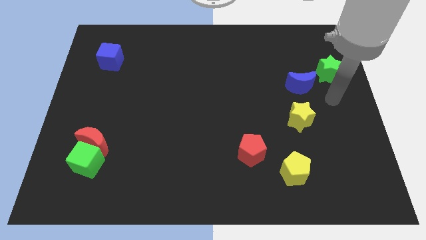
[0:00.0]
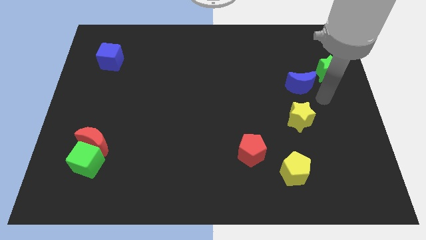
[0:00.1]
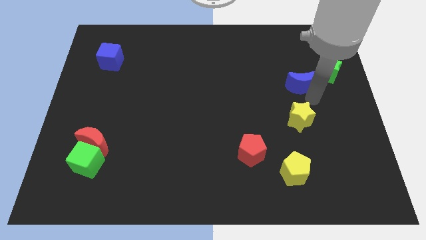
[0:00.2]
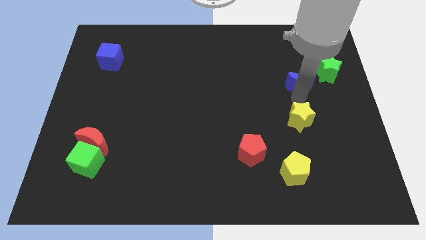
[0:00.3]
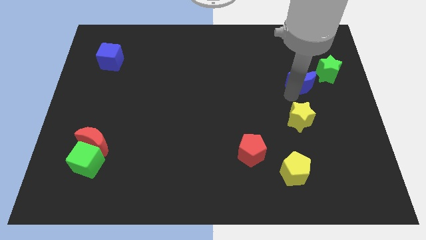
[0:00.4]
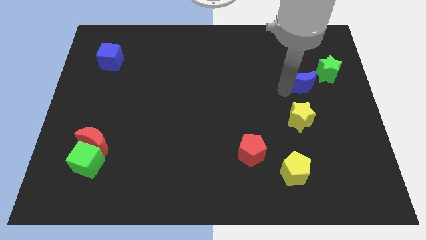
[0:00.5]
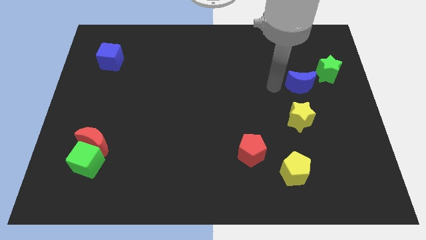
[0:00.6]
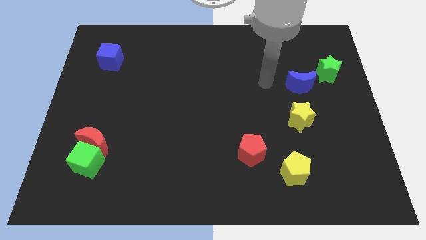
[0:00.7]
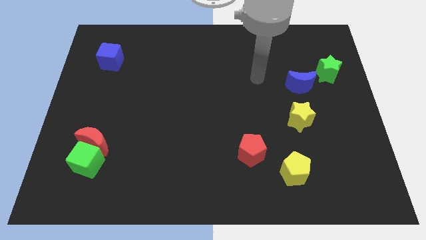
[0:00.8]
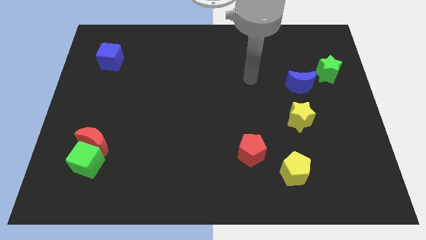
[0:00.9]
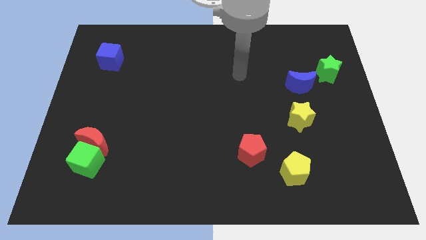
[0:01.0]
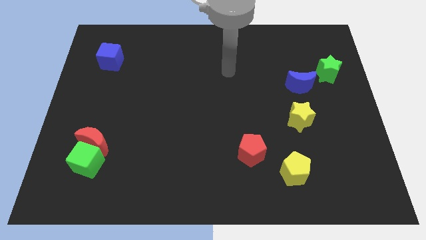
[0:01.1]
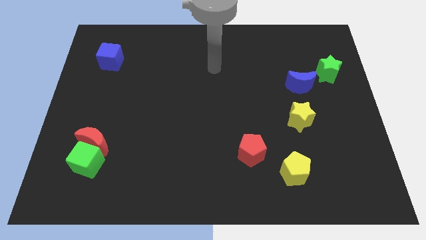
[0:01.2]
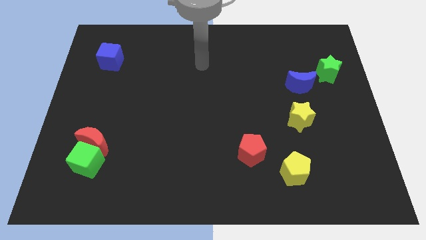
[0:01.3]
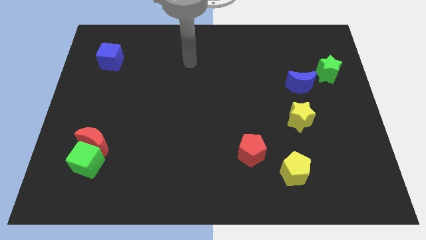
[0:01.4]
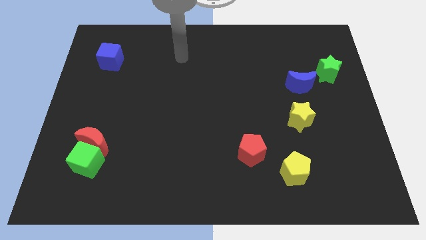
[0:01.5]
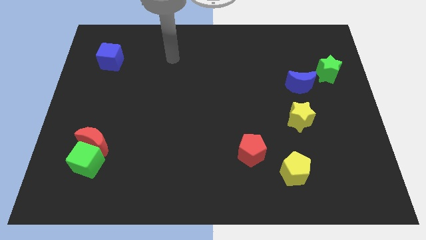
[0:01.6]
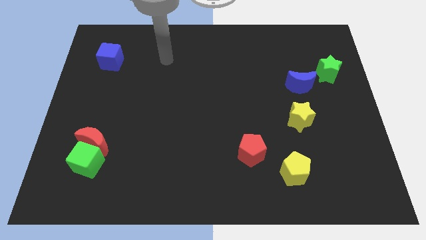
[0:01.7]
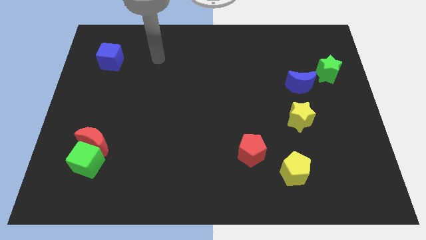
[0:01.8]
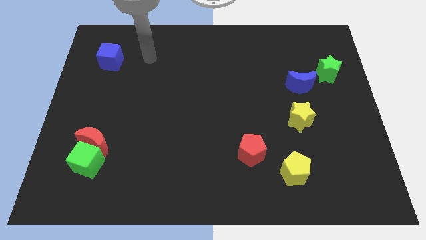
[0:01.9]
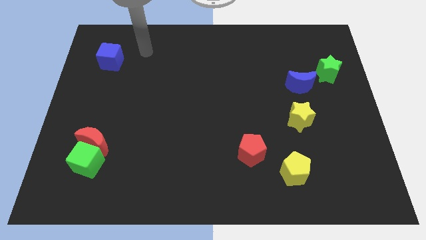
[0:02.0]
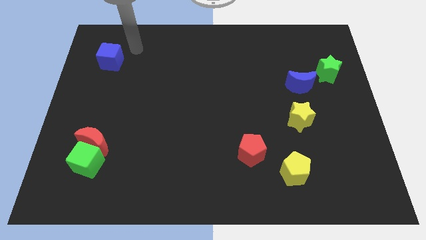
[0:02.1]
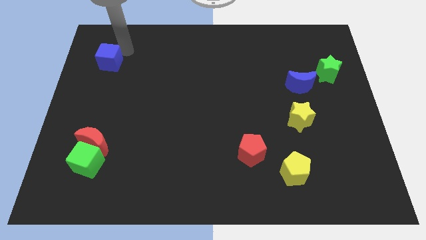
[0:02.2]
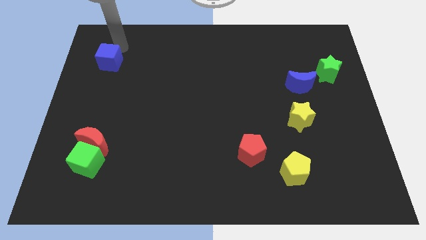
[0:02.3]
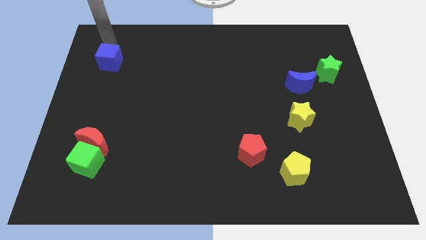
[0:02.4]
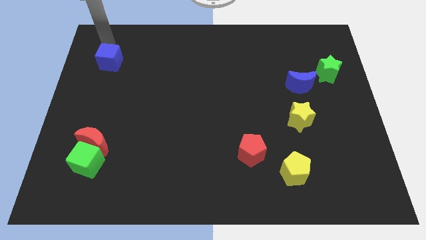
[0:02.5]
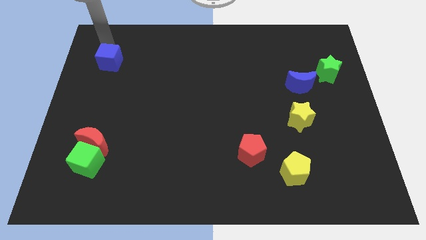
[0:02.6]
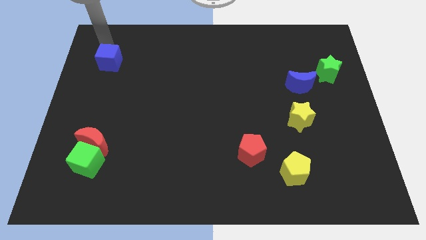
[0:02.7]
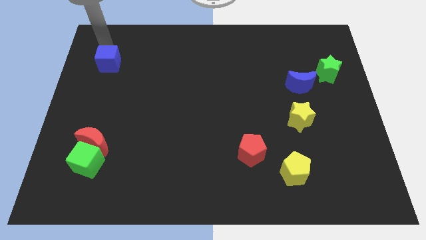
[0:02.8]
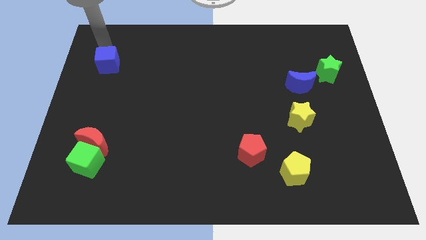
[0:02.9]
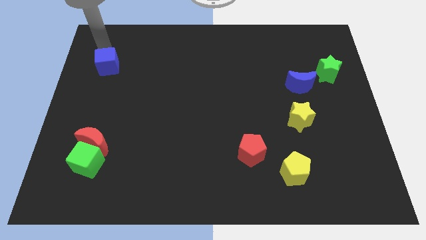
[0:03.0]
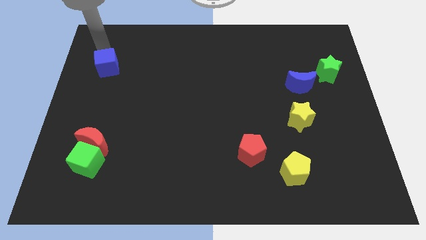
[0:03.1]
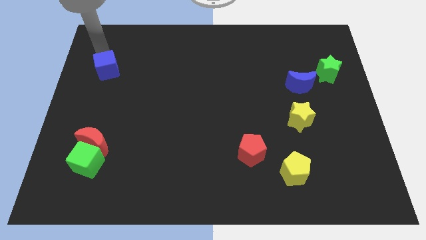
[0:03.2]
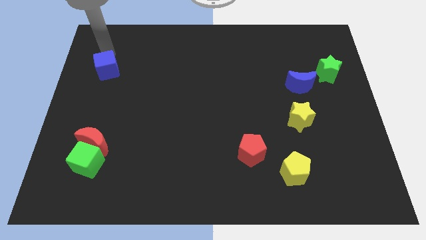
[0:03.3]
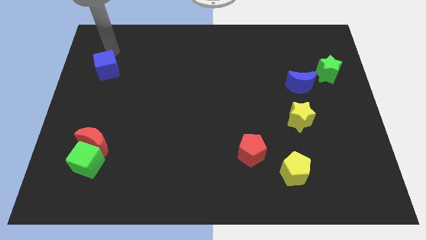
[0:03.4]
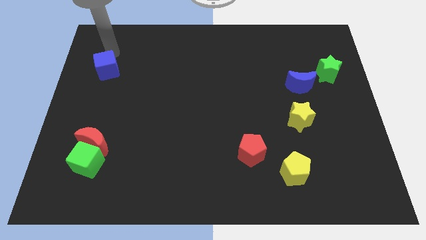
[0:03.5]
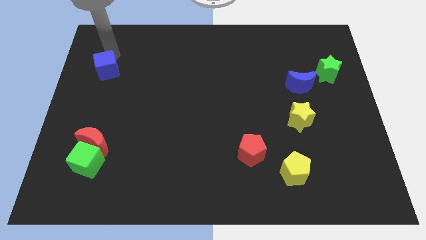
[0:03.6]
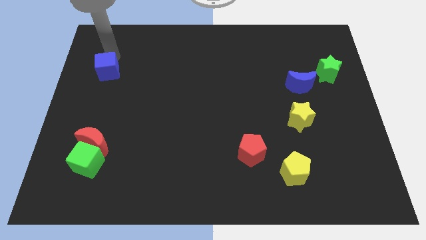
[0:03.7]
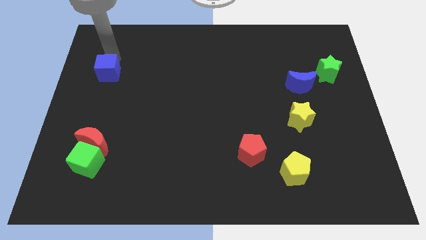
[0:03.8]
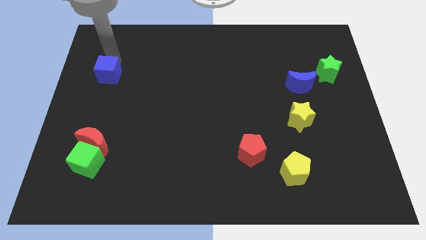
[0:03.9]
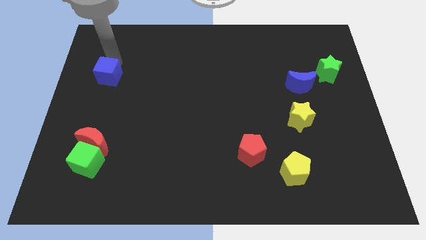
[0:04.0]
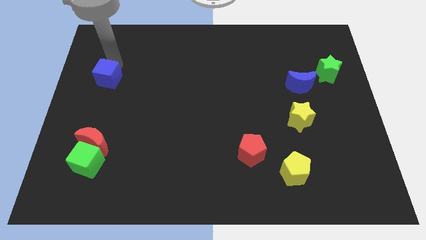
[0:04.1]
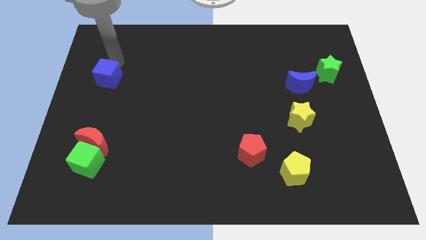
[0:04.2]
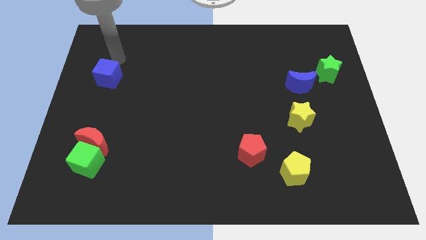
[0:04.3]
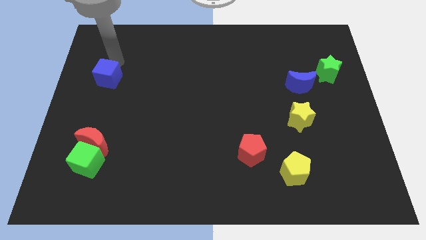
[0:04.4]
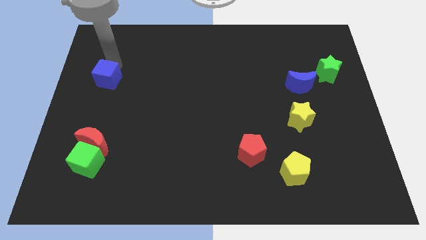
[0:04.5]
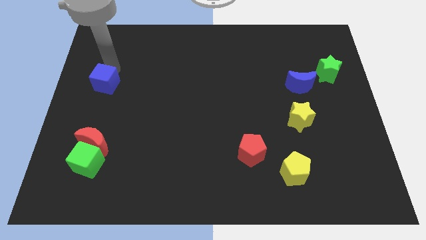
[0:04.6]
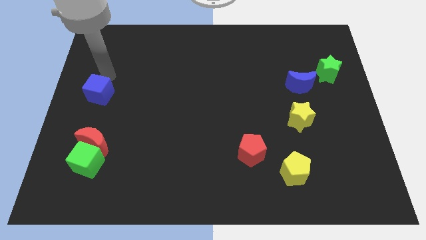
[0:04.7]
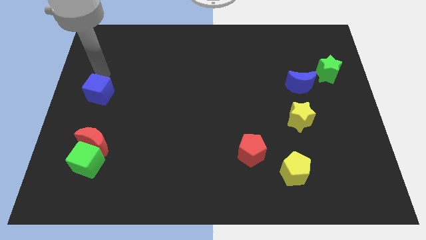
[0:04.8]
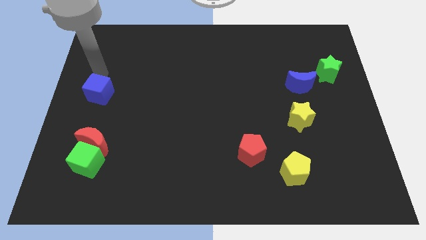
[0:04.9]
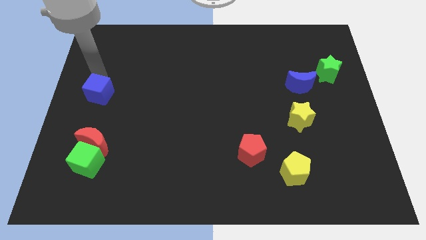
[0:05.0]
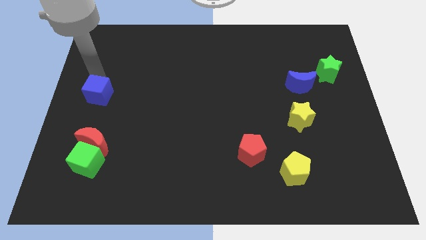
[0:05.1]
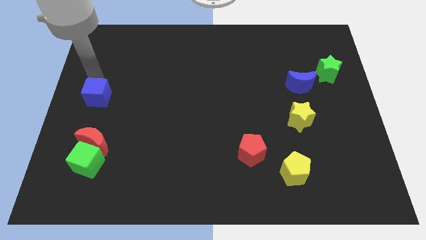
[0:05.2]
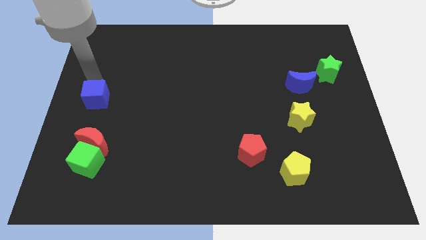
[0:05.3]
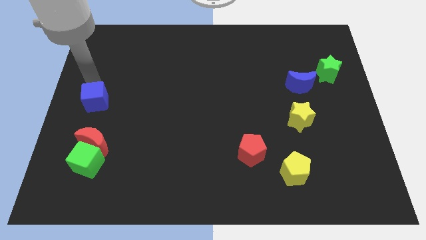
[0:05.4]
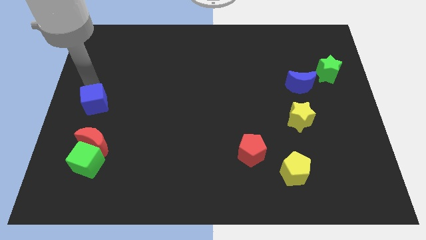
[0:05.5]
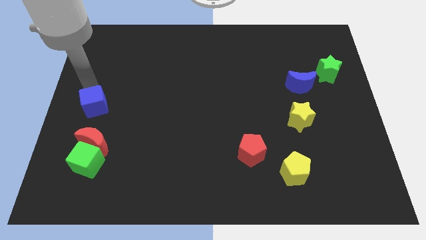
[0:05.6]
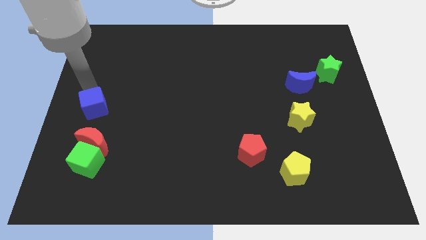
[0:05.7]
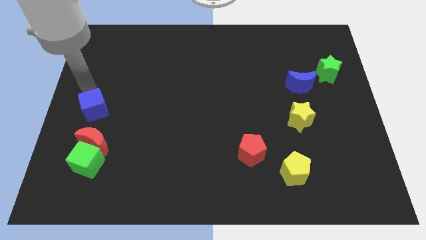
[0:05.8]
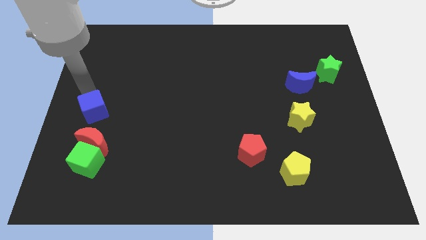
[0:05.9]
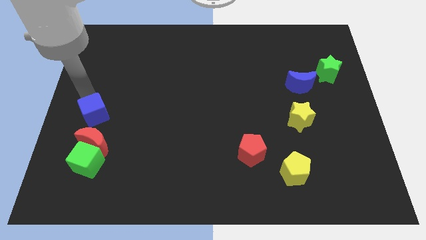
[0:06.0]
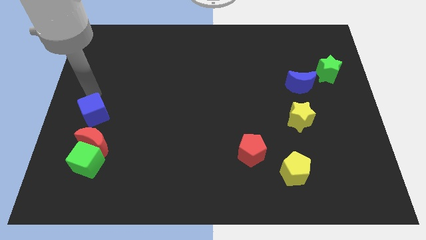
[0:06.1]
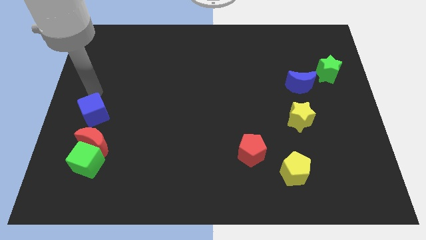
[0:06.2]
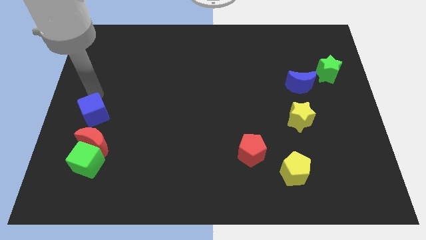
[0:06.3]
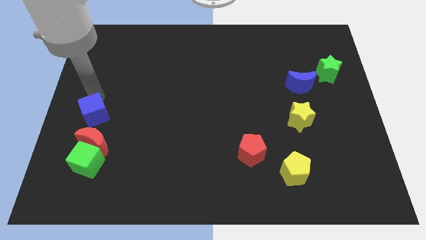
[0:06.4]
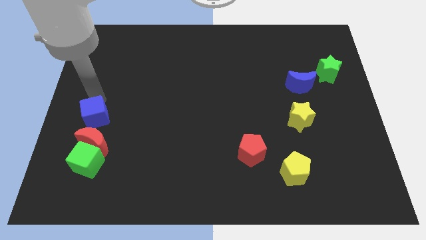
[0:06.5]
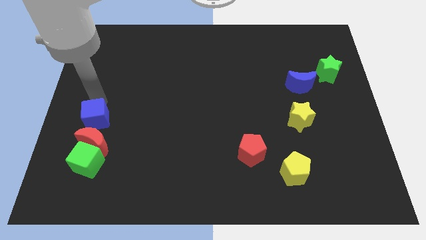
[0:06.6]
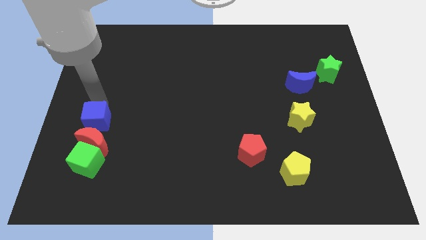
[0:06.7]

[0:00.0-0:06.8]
slide the blue cube towards the red moon

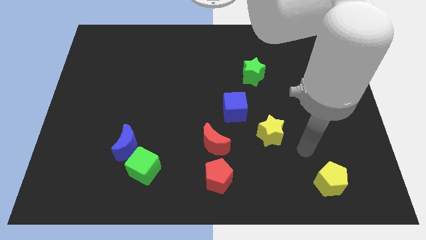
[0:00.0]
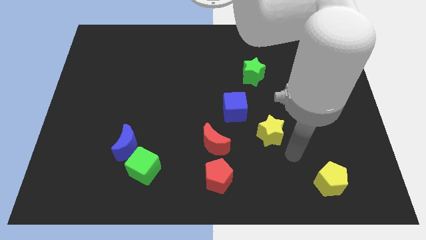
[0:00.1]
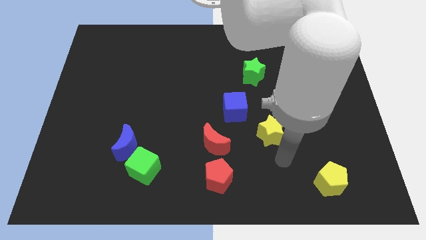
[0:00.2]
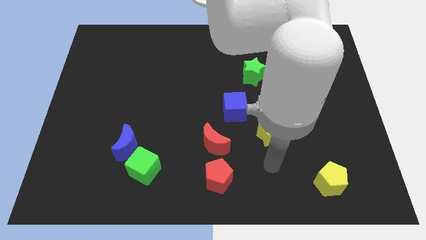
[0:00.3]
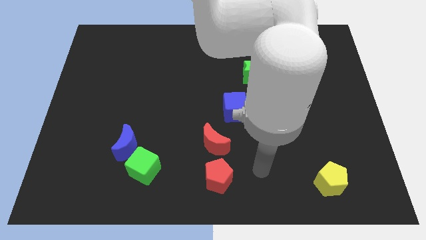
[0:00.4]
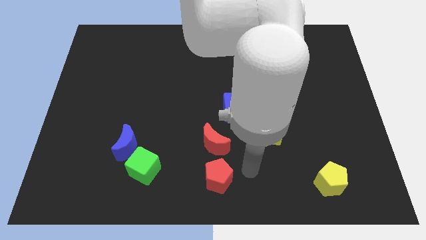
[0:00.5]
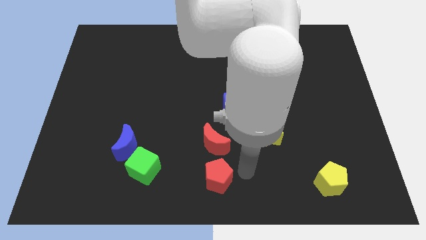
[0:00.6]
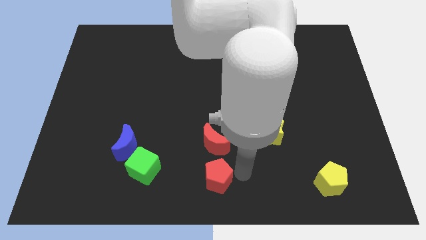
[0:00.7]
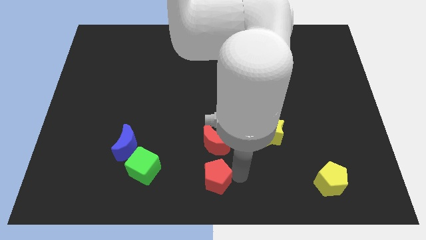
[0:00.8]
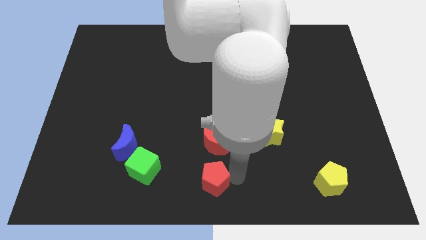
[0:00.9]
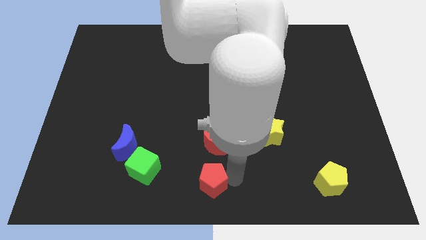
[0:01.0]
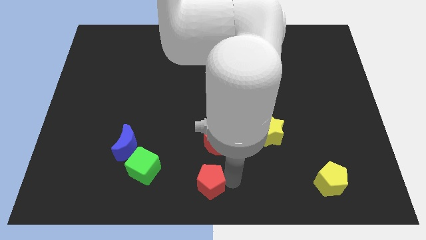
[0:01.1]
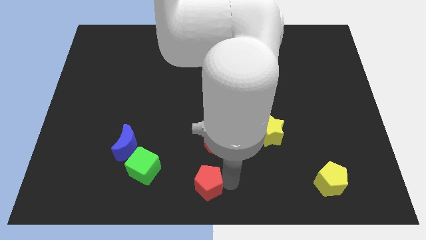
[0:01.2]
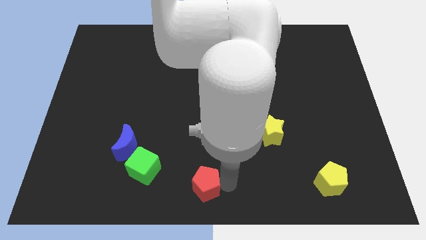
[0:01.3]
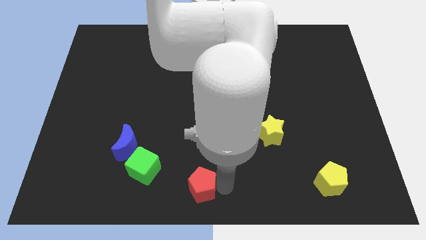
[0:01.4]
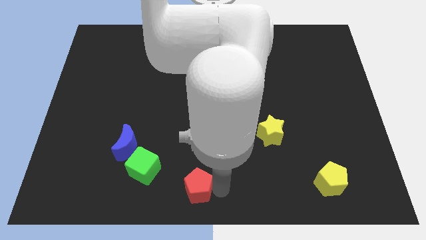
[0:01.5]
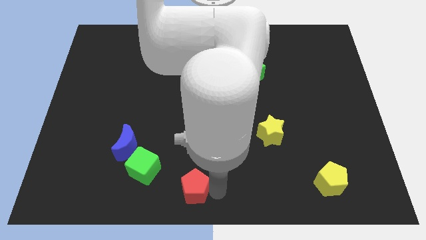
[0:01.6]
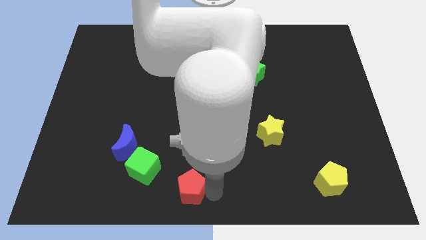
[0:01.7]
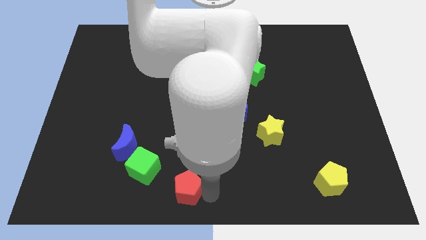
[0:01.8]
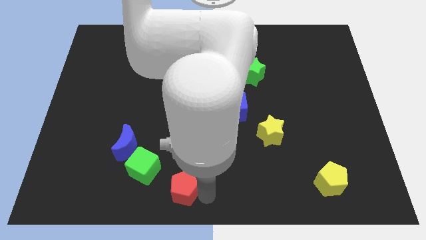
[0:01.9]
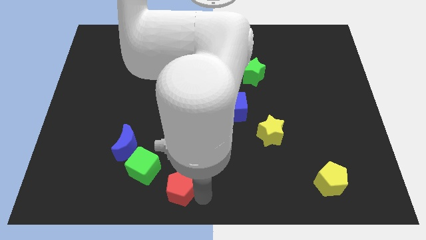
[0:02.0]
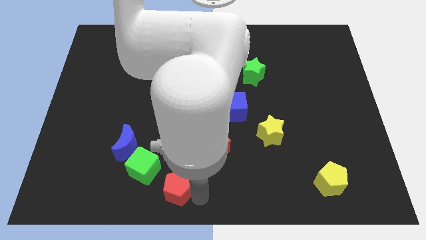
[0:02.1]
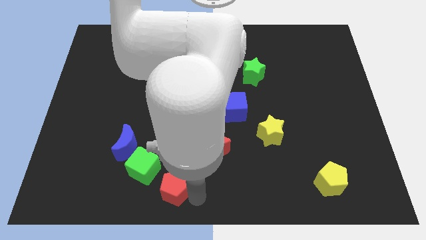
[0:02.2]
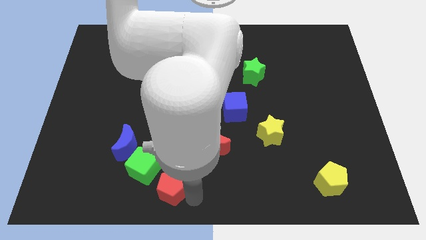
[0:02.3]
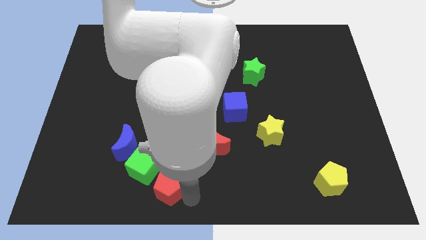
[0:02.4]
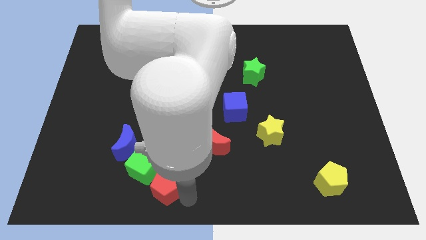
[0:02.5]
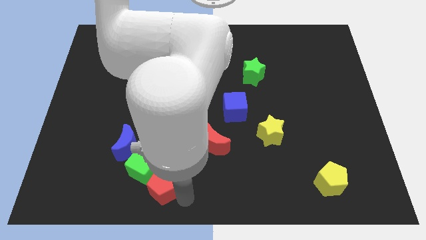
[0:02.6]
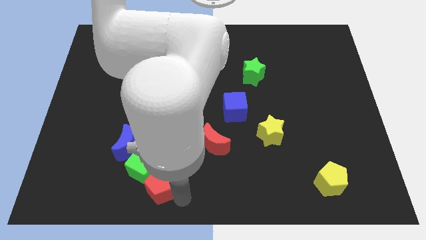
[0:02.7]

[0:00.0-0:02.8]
put the red pentagon towards the green cube
